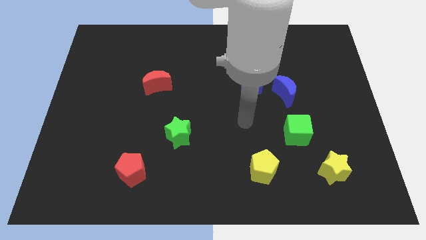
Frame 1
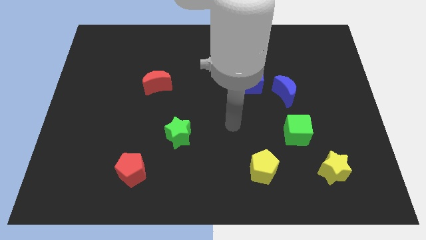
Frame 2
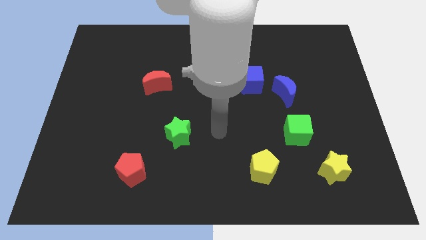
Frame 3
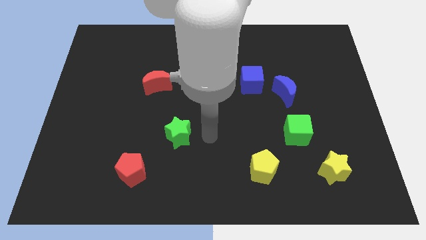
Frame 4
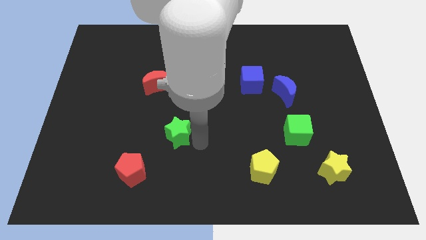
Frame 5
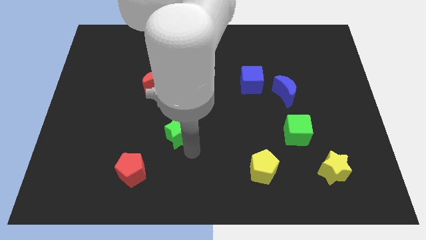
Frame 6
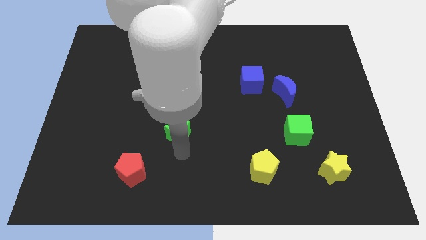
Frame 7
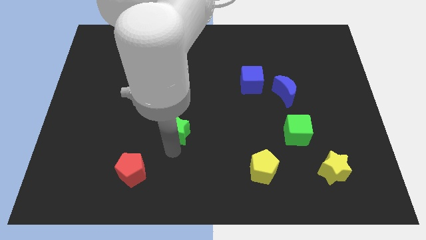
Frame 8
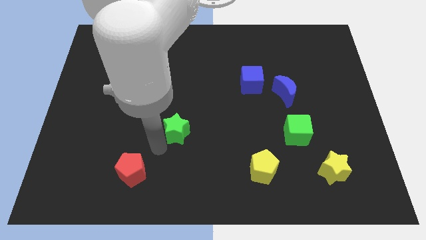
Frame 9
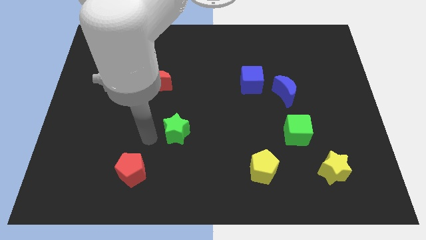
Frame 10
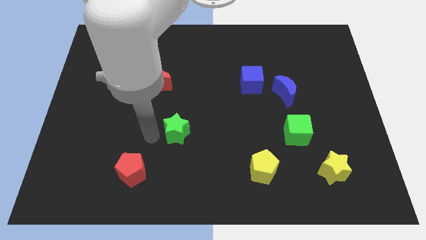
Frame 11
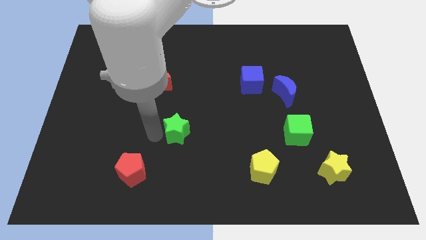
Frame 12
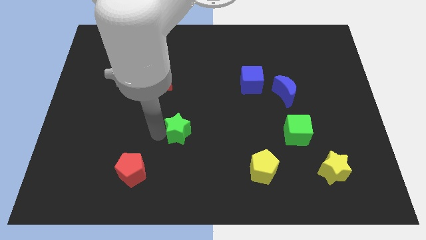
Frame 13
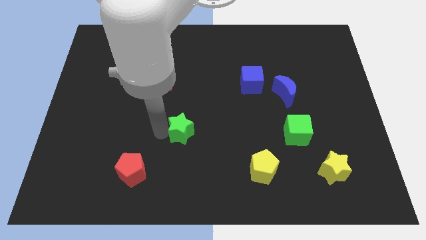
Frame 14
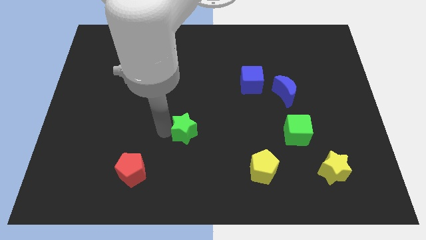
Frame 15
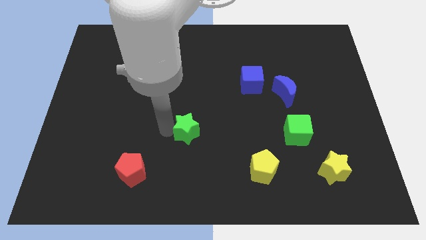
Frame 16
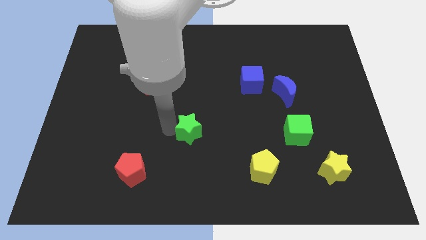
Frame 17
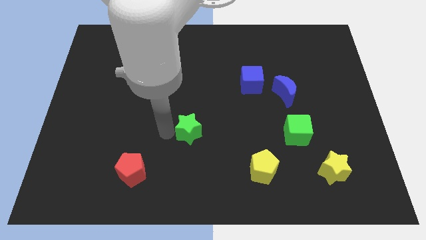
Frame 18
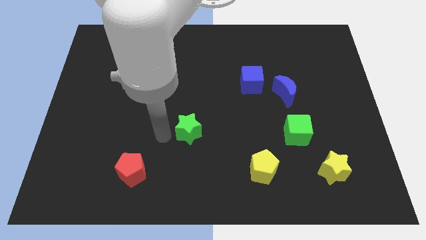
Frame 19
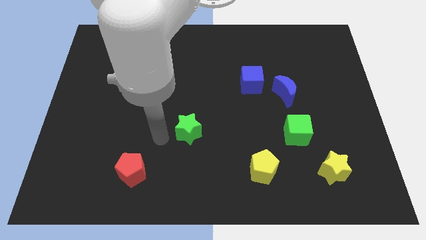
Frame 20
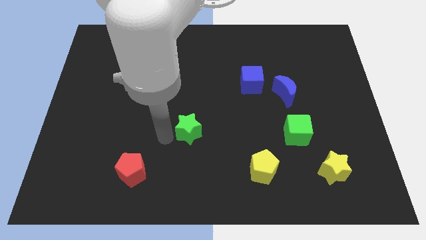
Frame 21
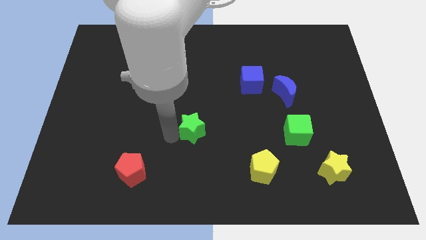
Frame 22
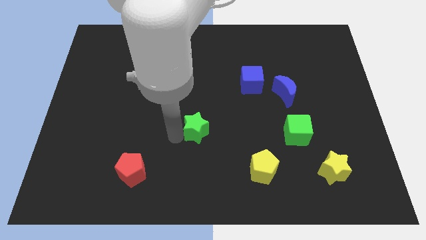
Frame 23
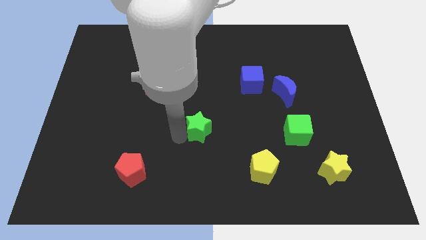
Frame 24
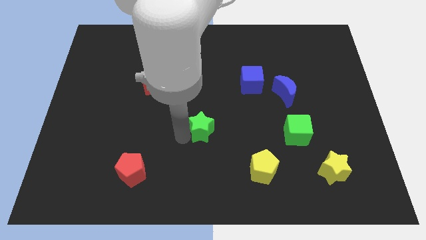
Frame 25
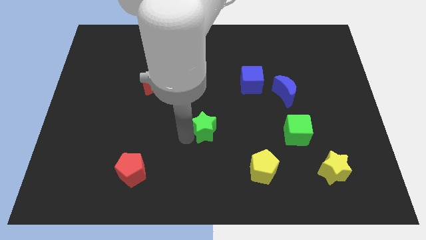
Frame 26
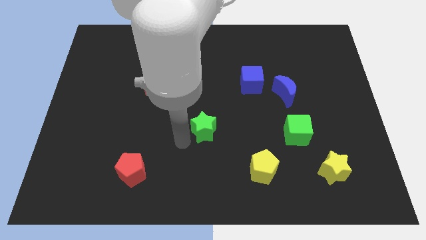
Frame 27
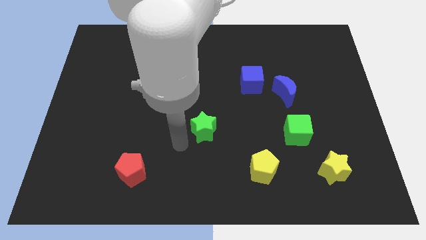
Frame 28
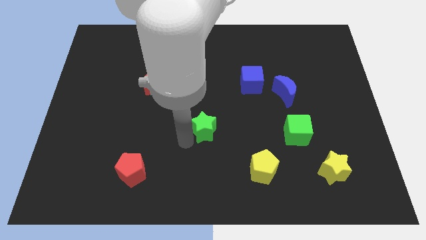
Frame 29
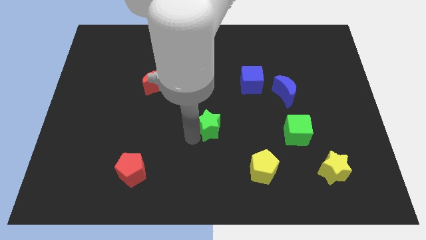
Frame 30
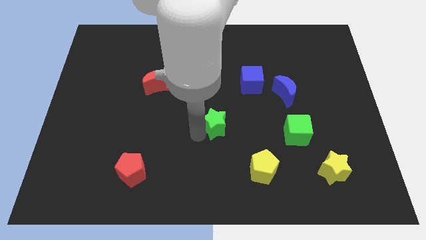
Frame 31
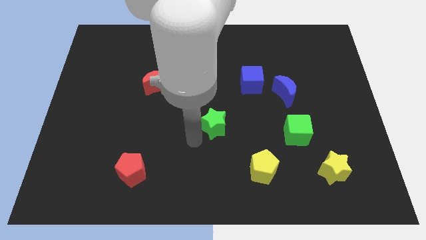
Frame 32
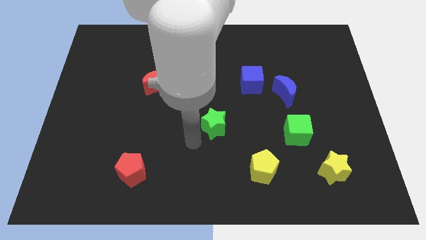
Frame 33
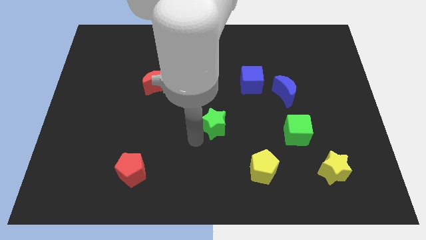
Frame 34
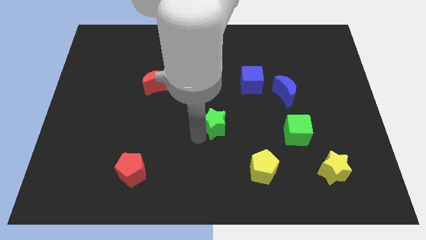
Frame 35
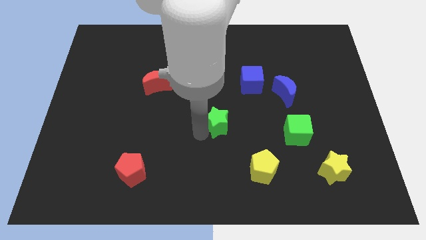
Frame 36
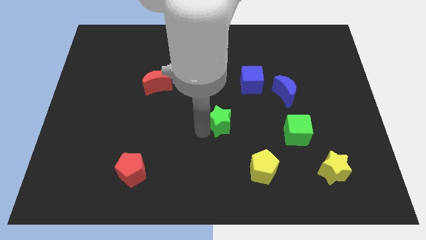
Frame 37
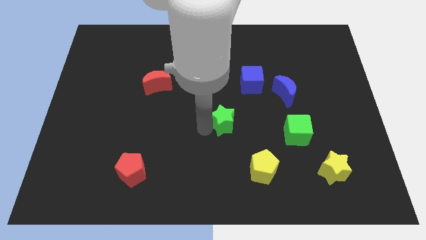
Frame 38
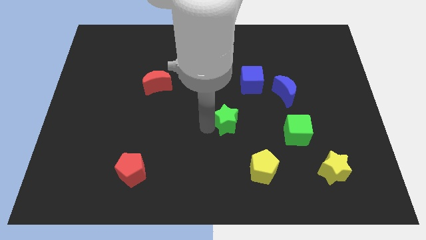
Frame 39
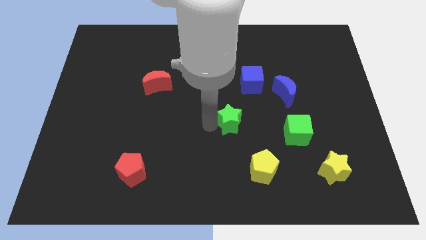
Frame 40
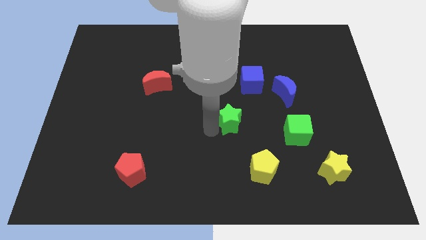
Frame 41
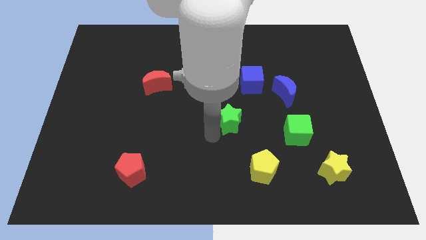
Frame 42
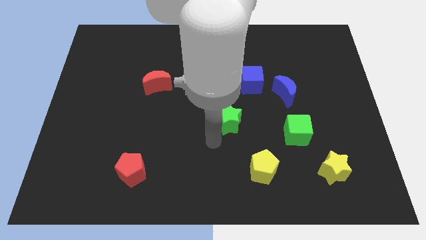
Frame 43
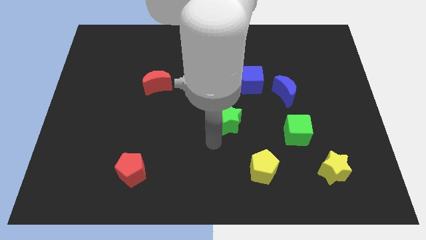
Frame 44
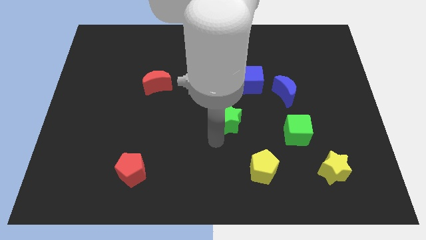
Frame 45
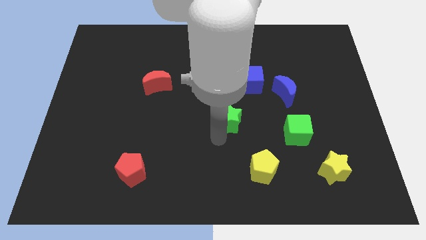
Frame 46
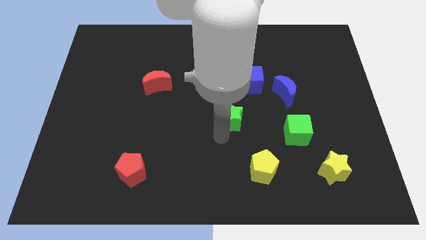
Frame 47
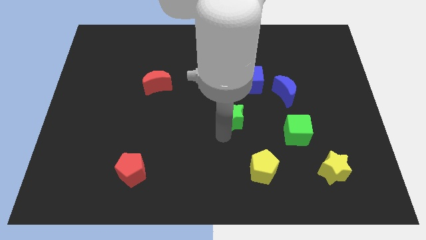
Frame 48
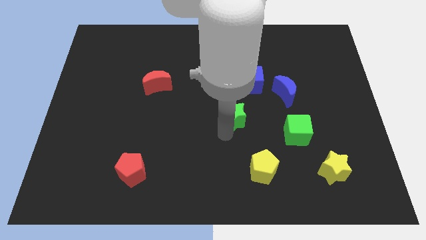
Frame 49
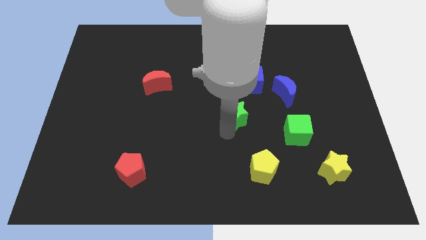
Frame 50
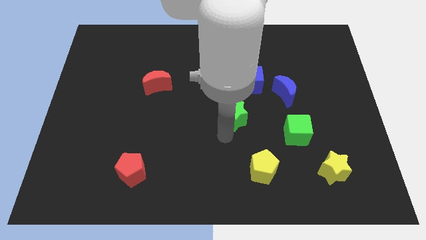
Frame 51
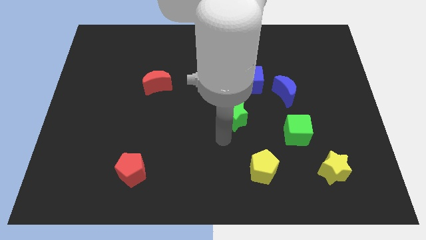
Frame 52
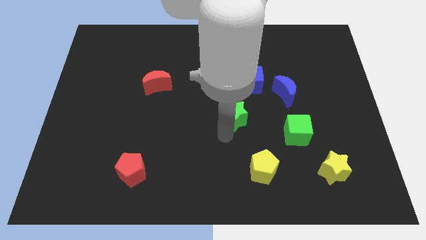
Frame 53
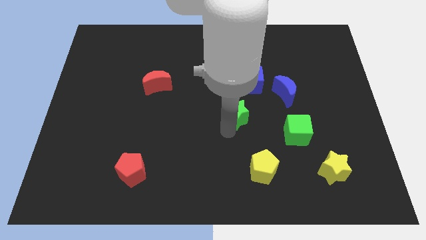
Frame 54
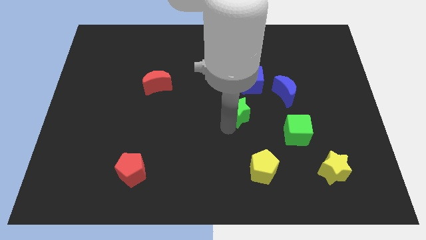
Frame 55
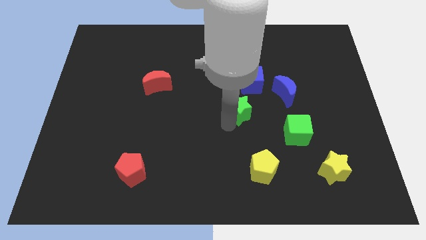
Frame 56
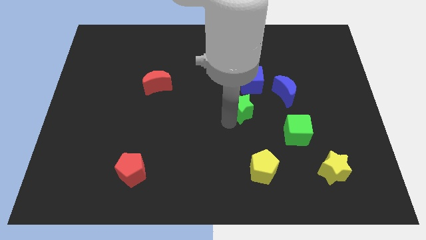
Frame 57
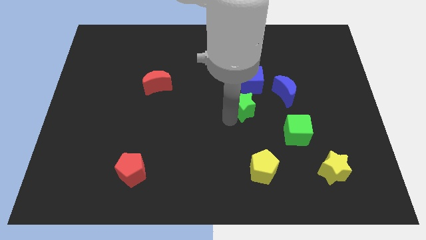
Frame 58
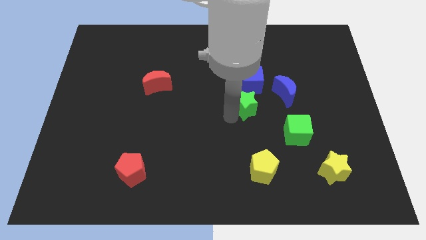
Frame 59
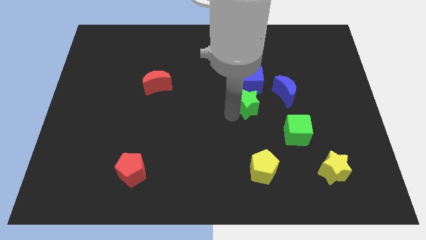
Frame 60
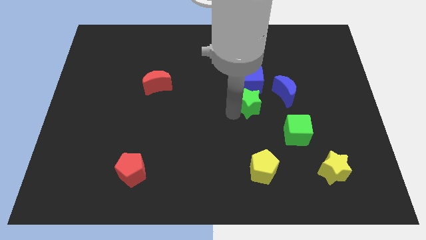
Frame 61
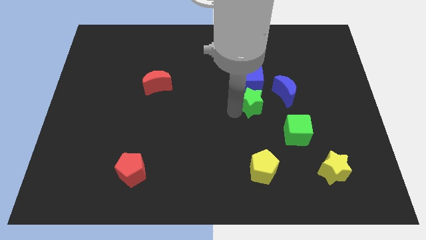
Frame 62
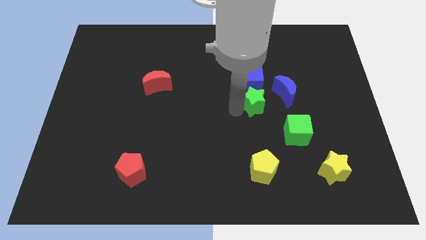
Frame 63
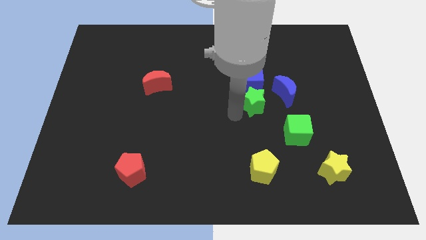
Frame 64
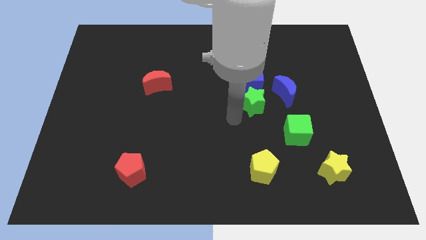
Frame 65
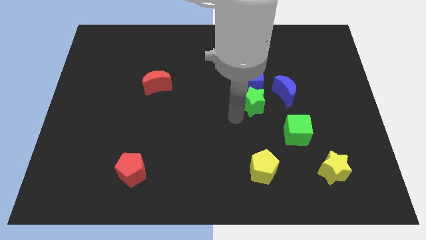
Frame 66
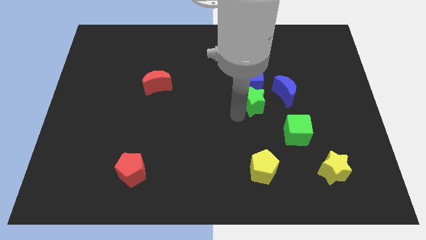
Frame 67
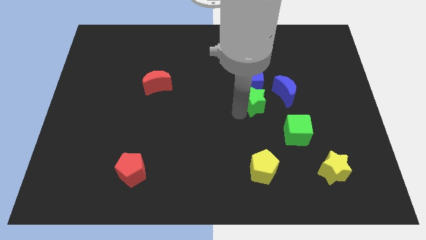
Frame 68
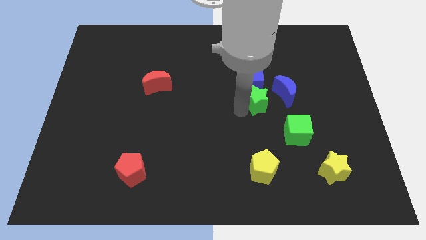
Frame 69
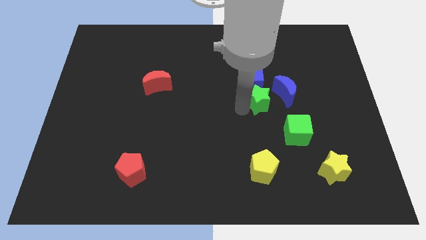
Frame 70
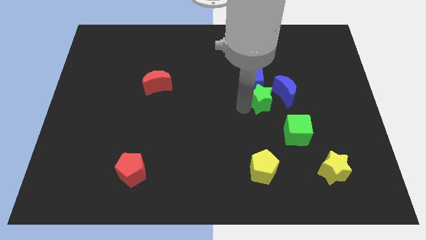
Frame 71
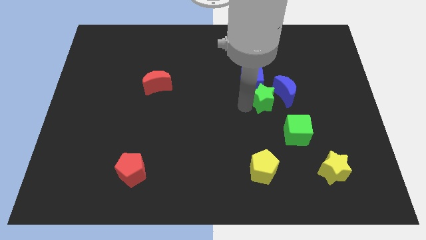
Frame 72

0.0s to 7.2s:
slide the green star towards the blue moon
